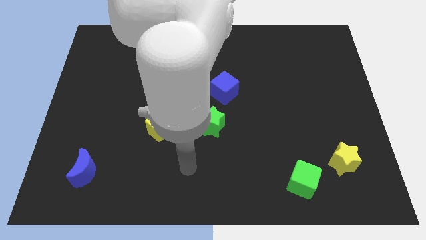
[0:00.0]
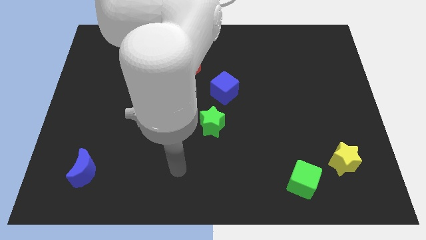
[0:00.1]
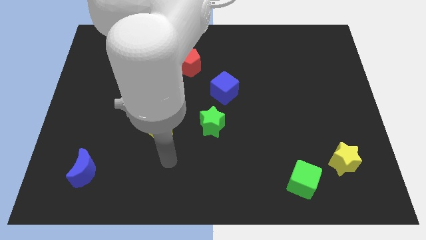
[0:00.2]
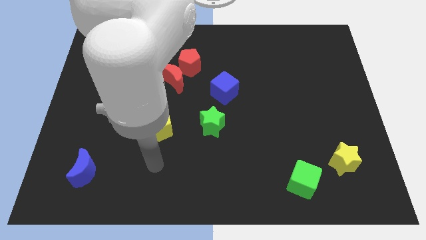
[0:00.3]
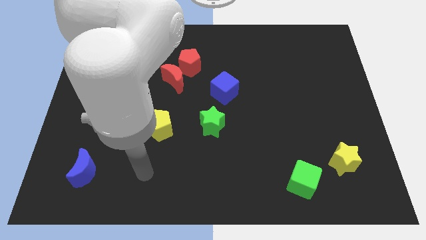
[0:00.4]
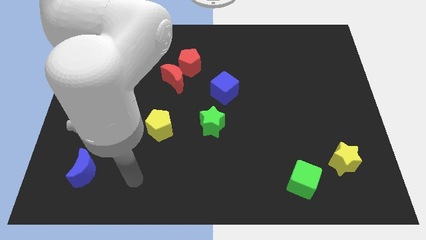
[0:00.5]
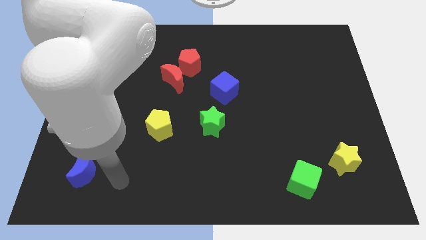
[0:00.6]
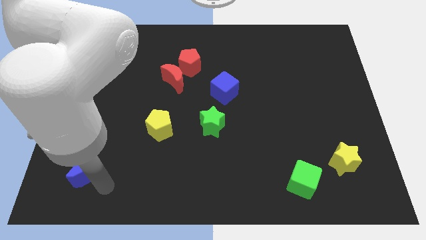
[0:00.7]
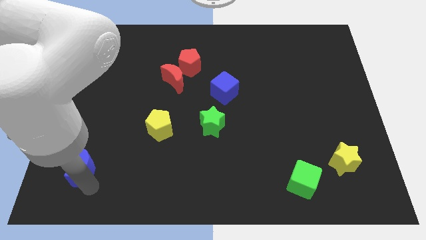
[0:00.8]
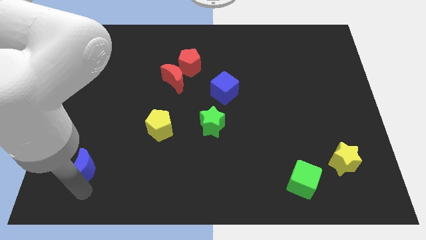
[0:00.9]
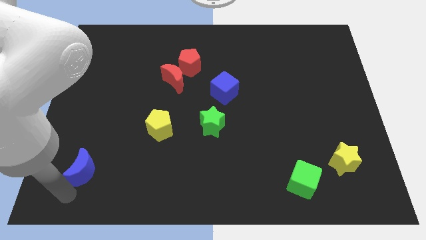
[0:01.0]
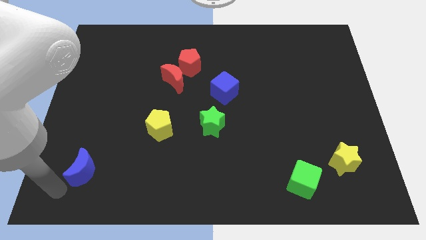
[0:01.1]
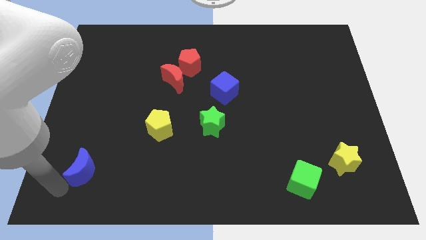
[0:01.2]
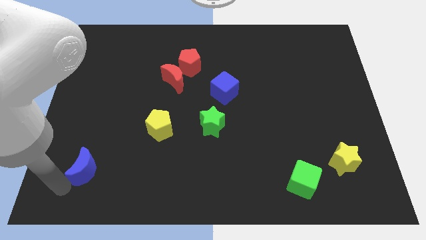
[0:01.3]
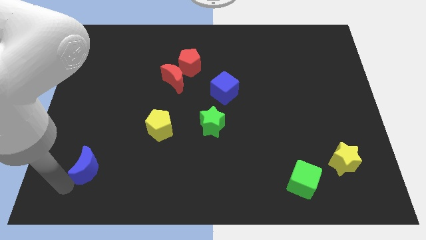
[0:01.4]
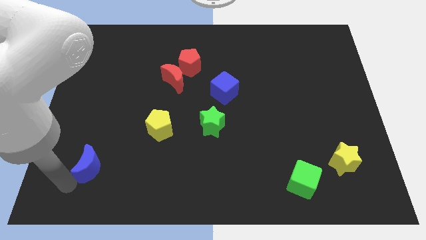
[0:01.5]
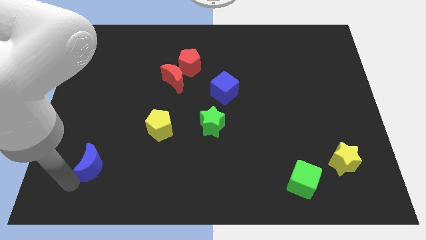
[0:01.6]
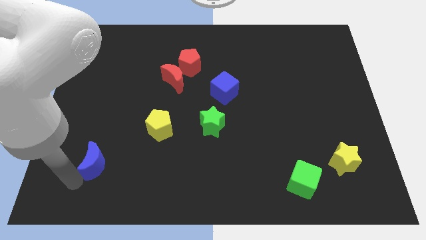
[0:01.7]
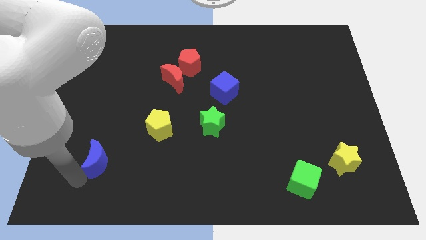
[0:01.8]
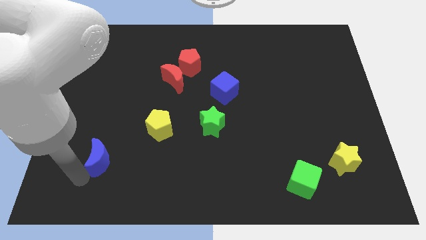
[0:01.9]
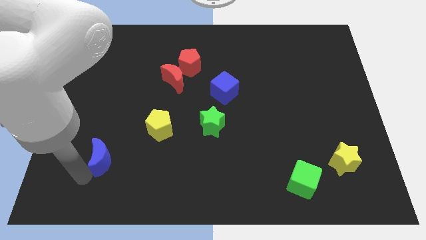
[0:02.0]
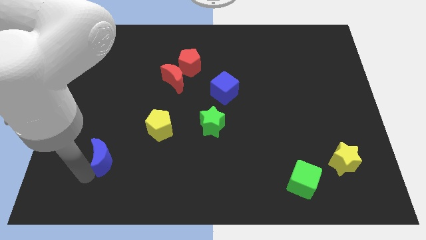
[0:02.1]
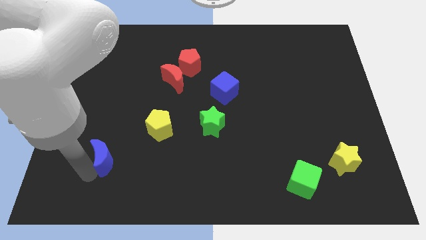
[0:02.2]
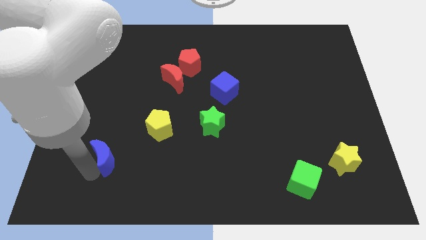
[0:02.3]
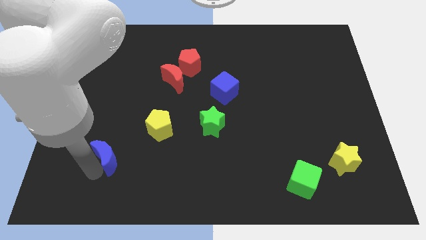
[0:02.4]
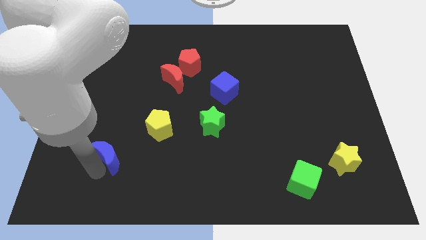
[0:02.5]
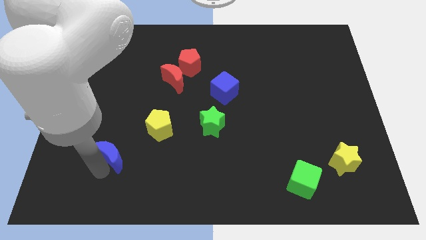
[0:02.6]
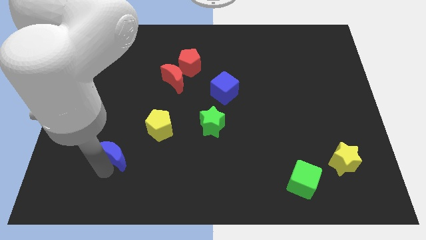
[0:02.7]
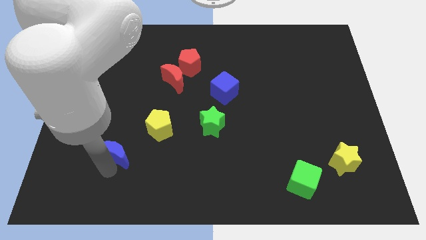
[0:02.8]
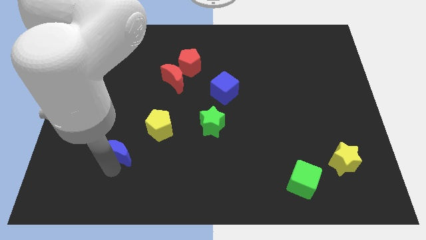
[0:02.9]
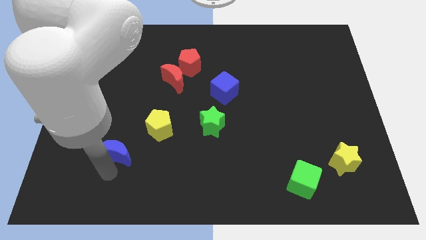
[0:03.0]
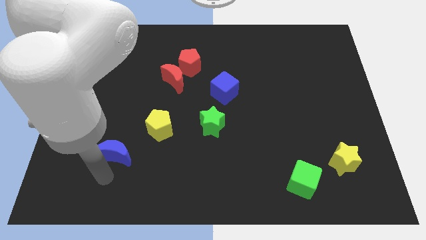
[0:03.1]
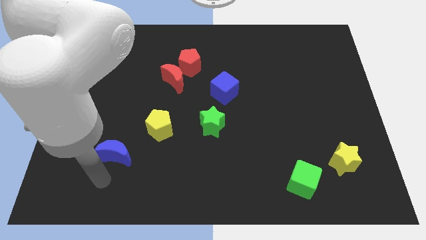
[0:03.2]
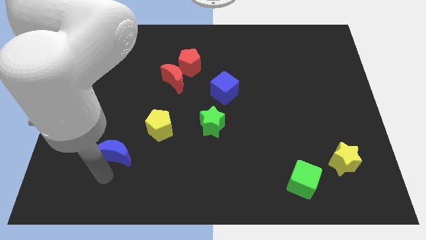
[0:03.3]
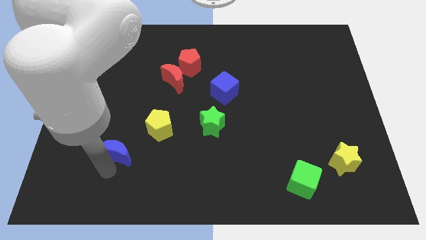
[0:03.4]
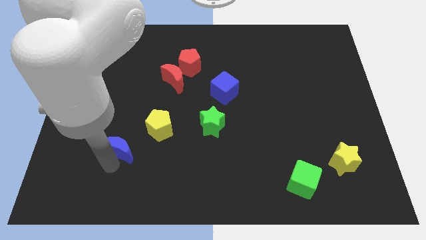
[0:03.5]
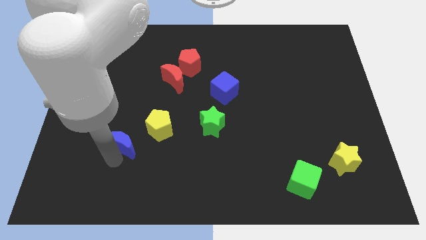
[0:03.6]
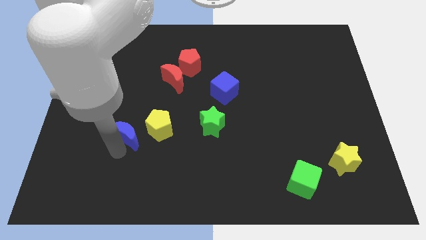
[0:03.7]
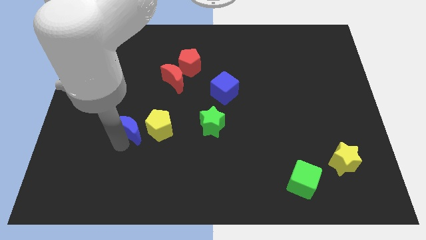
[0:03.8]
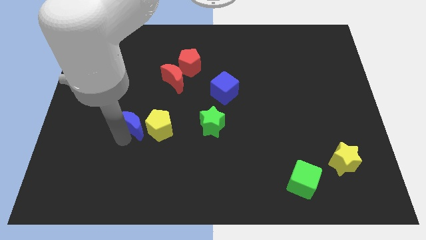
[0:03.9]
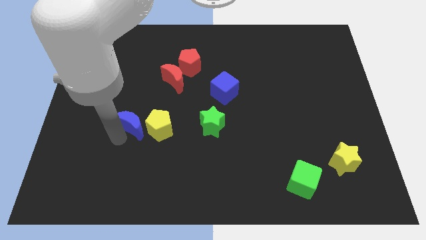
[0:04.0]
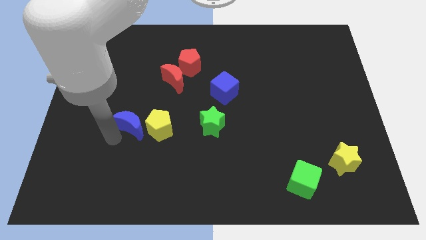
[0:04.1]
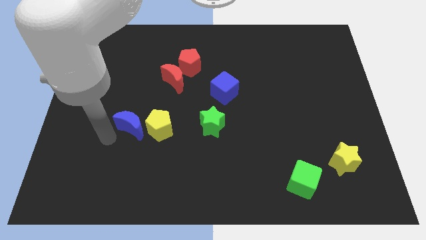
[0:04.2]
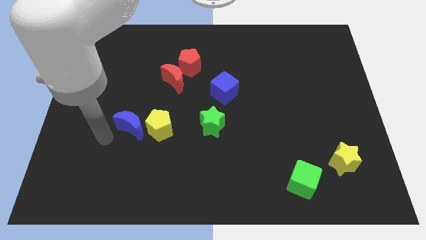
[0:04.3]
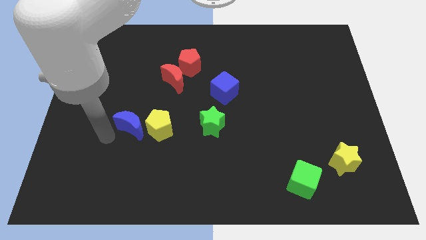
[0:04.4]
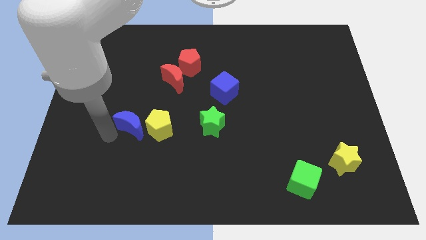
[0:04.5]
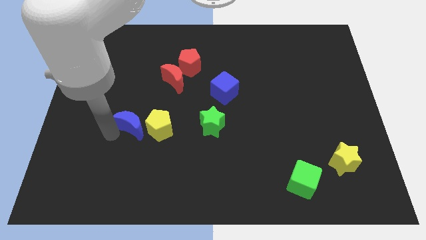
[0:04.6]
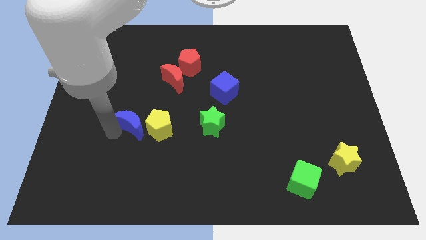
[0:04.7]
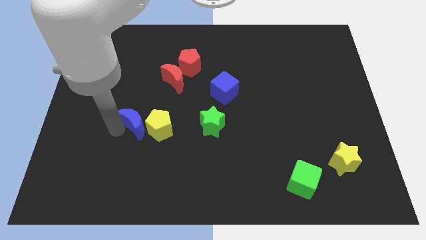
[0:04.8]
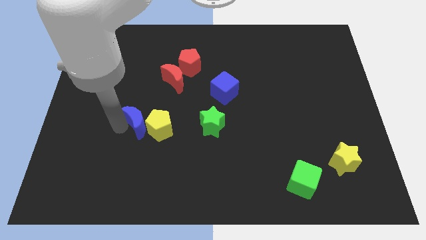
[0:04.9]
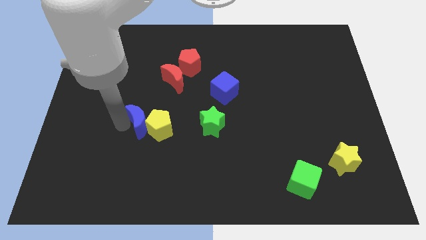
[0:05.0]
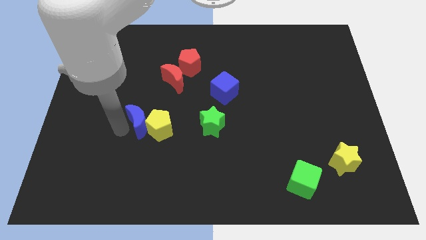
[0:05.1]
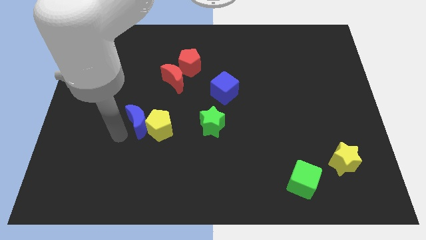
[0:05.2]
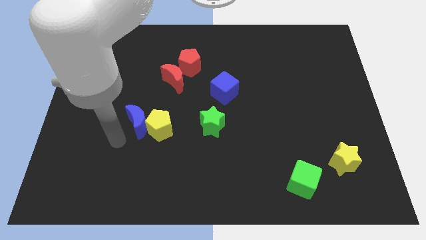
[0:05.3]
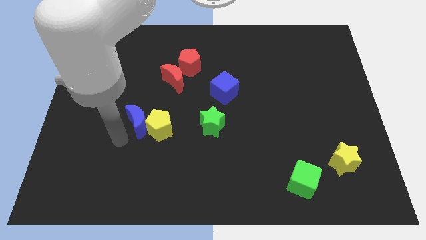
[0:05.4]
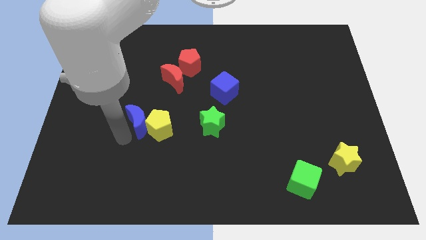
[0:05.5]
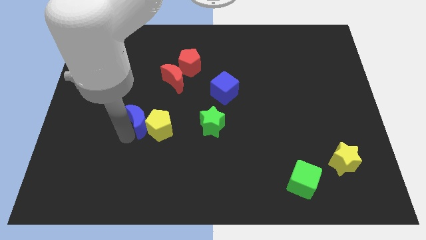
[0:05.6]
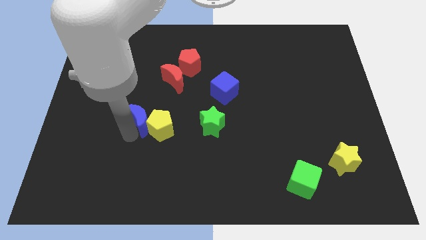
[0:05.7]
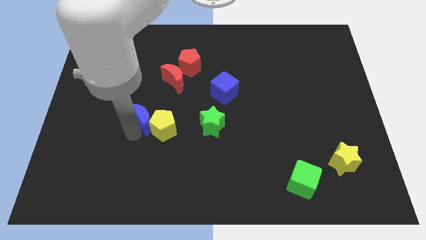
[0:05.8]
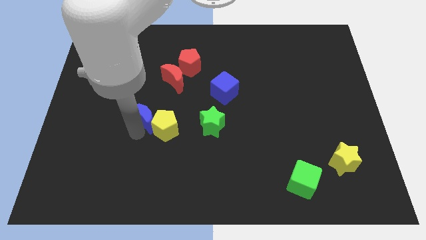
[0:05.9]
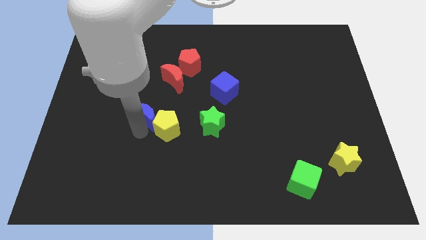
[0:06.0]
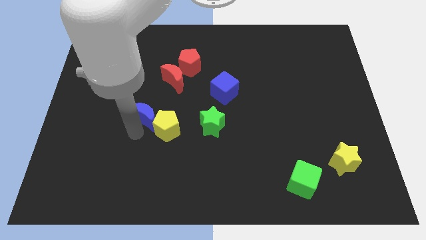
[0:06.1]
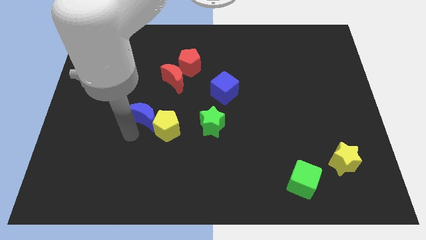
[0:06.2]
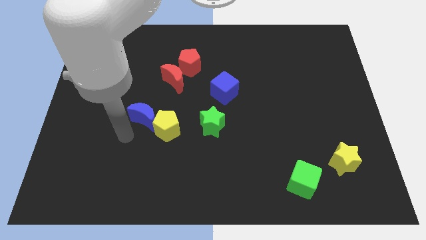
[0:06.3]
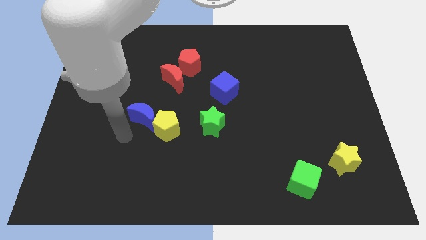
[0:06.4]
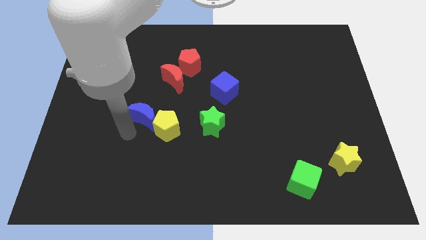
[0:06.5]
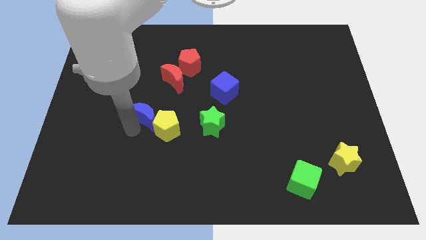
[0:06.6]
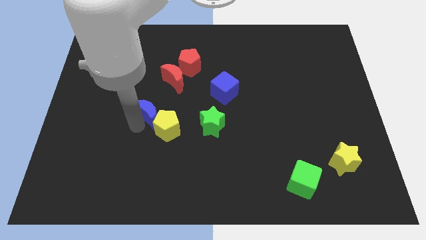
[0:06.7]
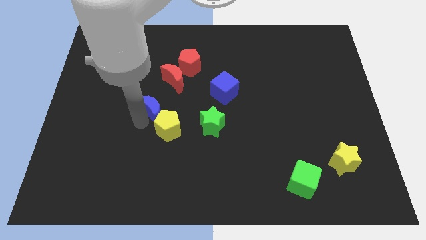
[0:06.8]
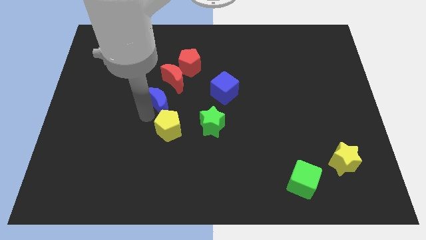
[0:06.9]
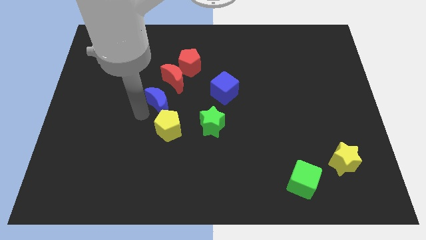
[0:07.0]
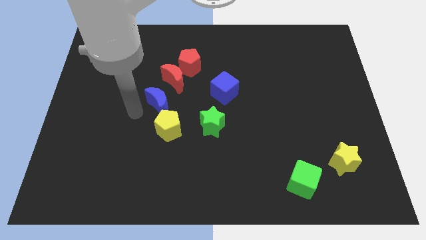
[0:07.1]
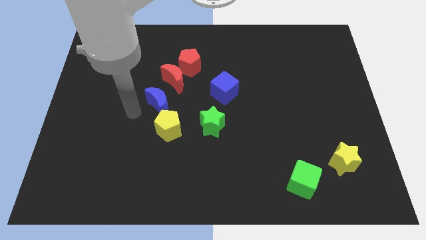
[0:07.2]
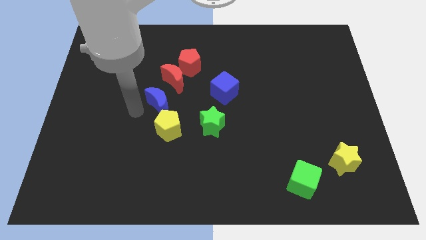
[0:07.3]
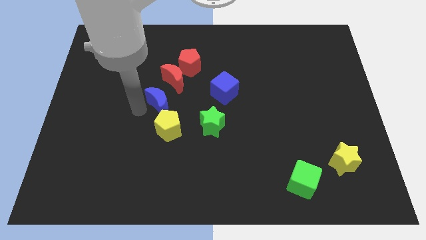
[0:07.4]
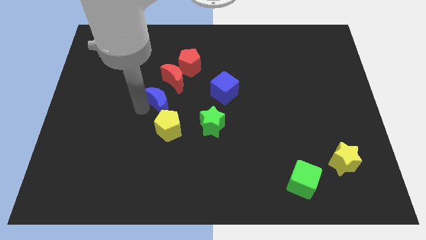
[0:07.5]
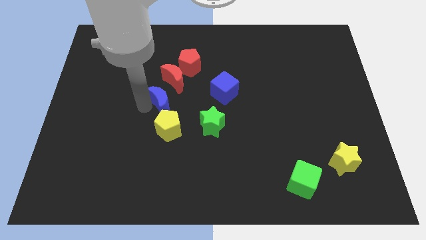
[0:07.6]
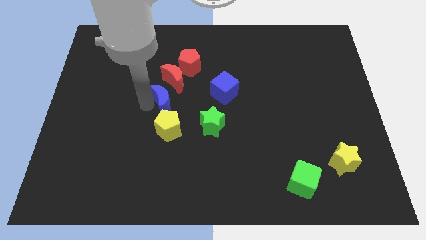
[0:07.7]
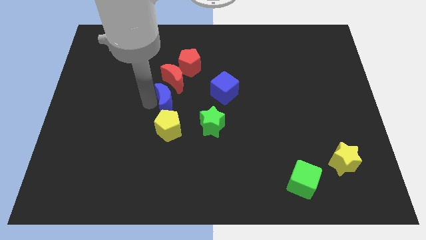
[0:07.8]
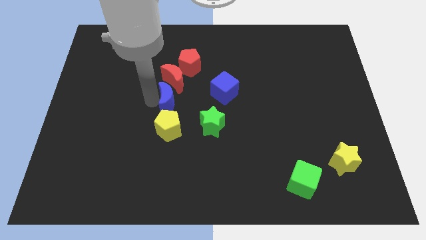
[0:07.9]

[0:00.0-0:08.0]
push the blue moon to the bottom of the red pentagon
